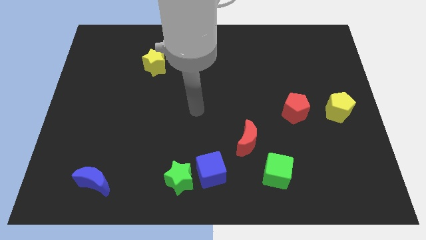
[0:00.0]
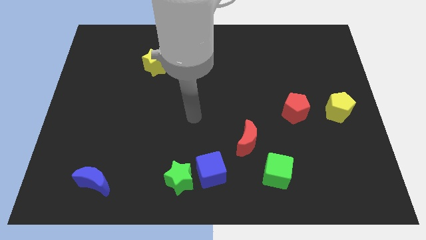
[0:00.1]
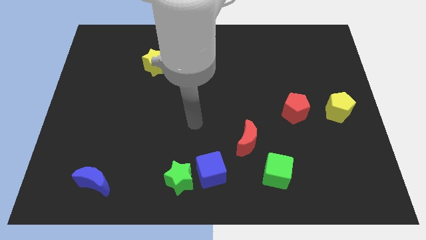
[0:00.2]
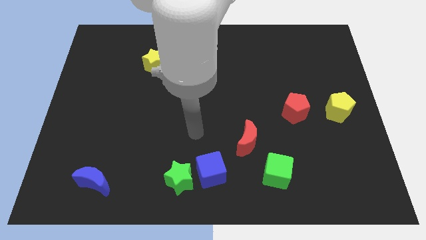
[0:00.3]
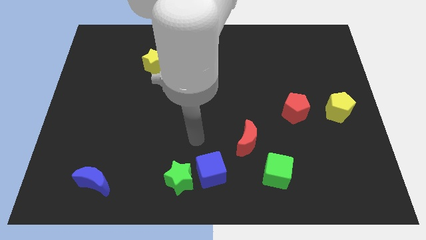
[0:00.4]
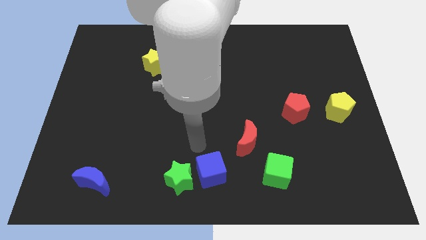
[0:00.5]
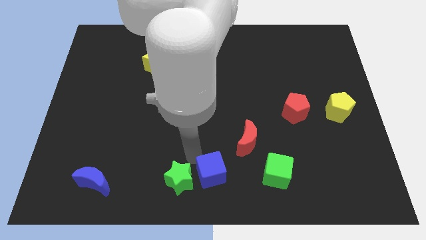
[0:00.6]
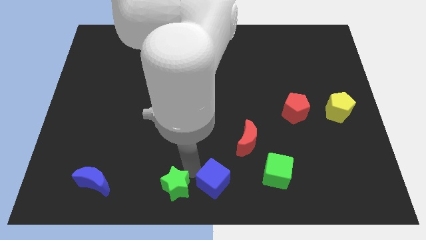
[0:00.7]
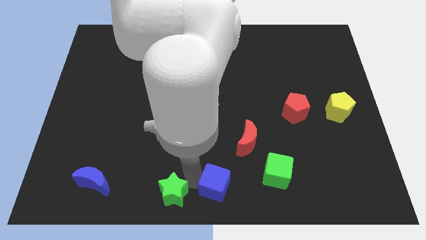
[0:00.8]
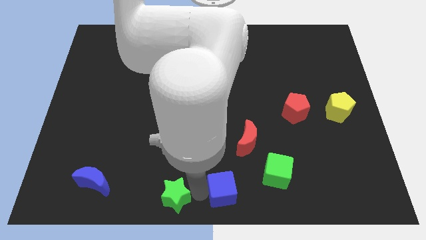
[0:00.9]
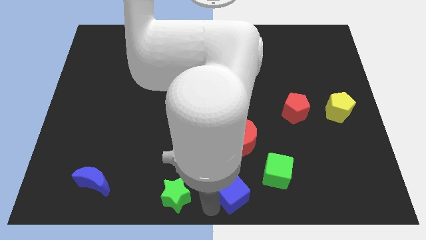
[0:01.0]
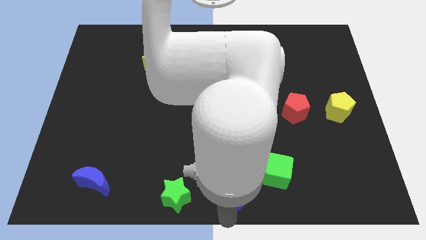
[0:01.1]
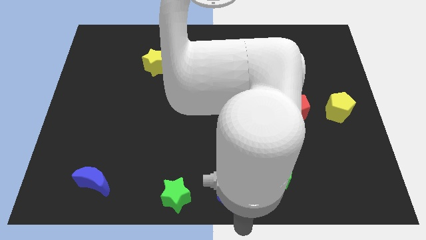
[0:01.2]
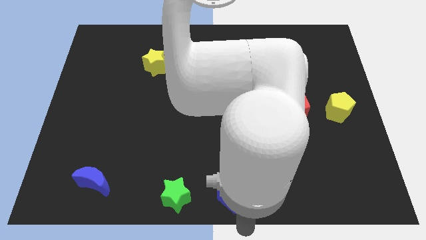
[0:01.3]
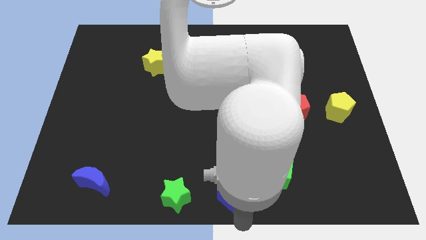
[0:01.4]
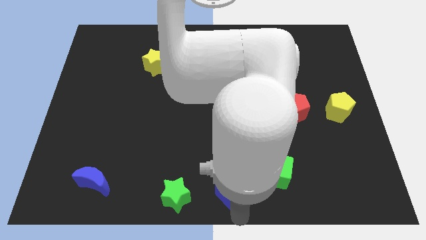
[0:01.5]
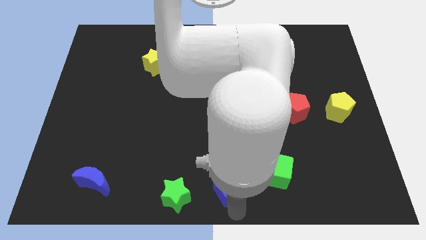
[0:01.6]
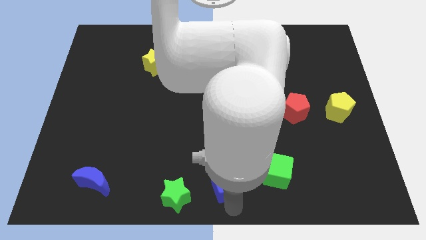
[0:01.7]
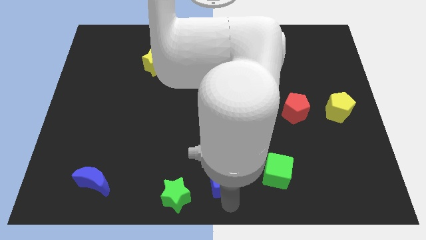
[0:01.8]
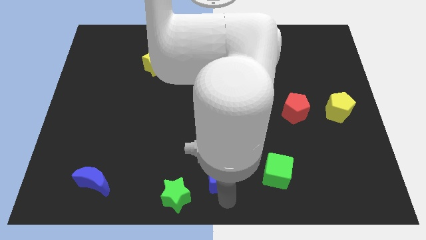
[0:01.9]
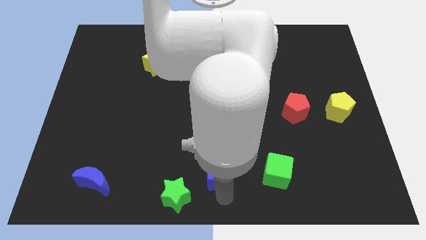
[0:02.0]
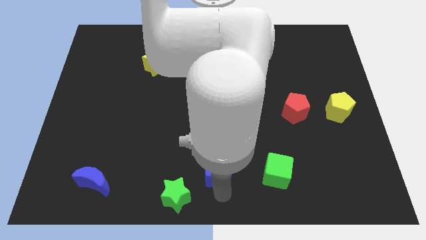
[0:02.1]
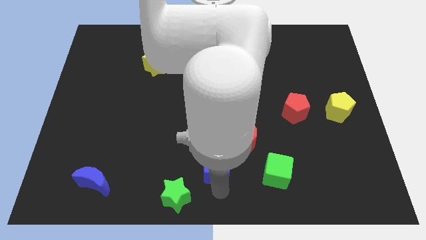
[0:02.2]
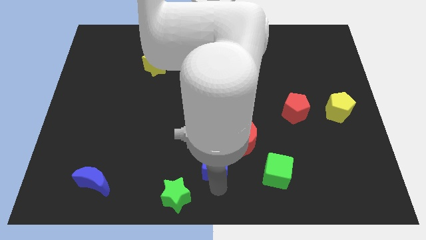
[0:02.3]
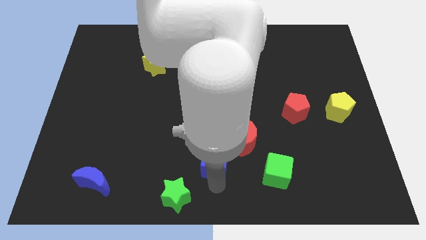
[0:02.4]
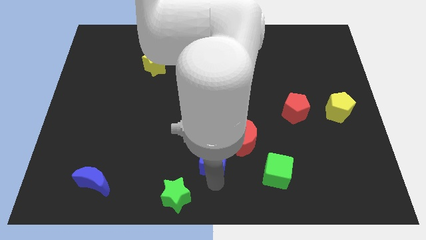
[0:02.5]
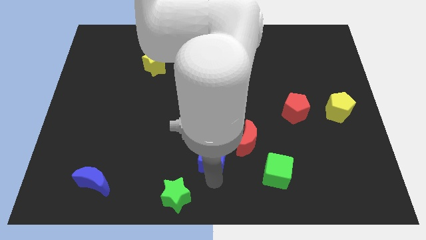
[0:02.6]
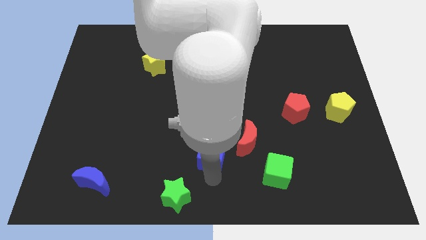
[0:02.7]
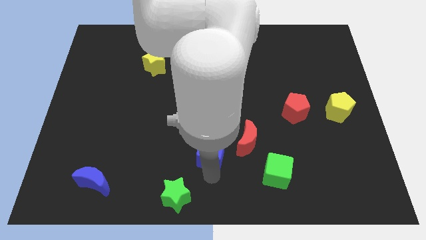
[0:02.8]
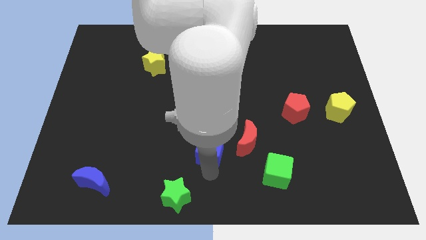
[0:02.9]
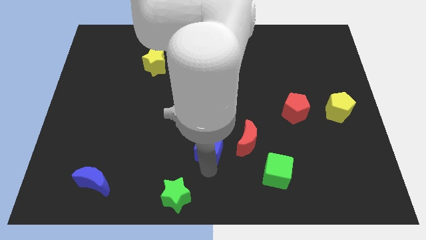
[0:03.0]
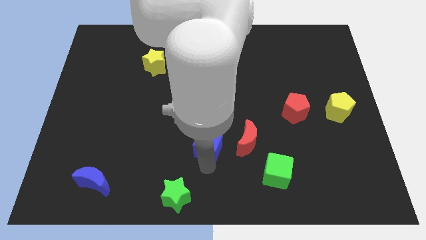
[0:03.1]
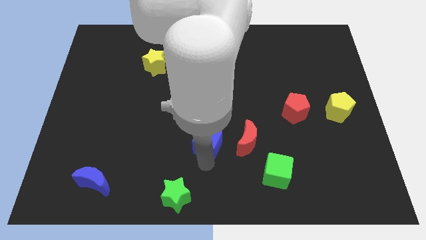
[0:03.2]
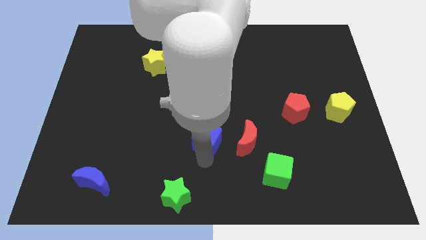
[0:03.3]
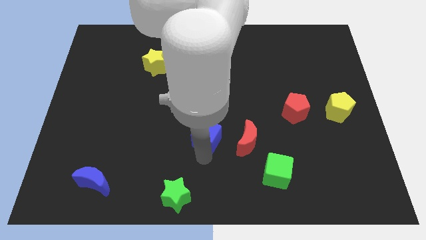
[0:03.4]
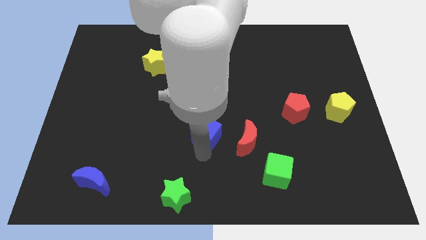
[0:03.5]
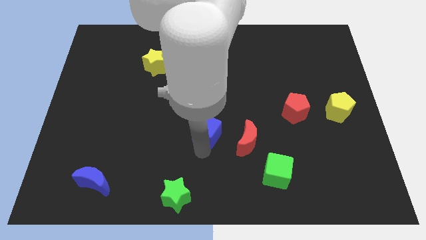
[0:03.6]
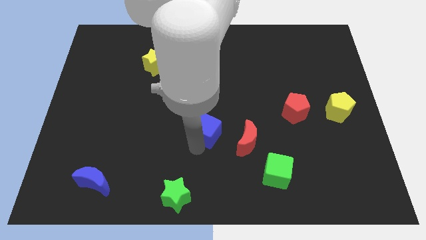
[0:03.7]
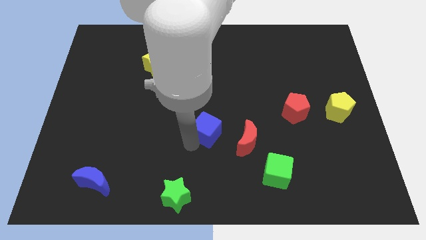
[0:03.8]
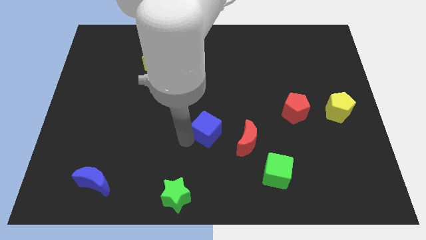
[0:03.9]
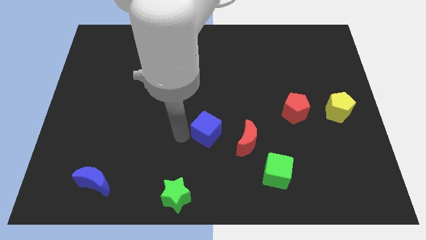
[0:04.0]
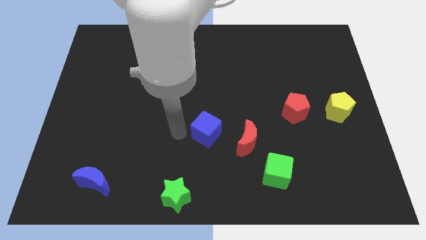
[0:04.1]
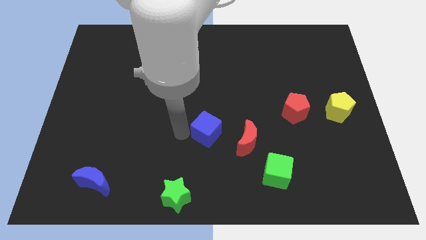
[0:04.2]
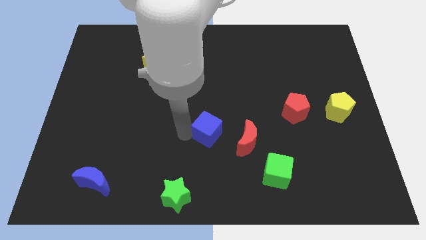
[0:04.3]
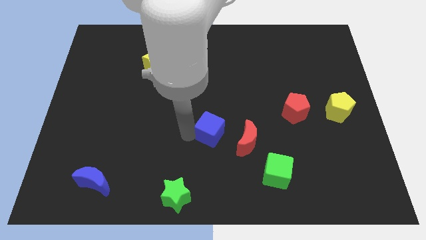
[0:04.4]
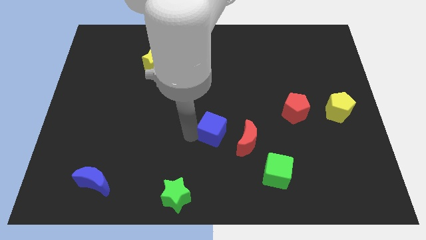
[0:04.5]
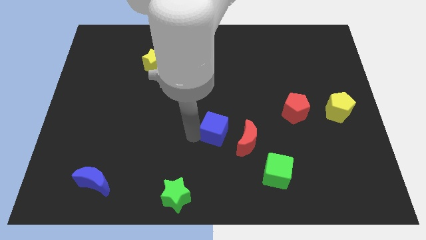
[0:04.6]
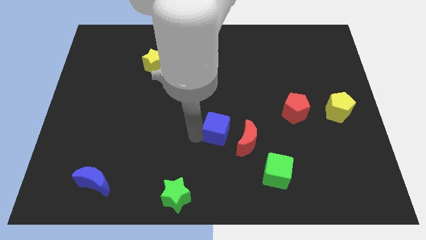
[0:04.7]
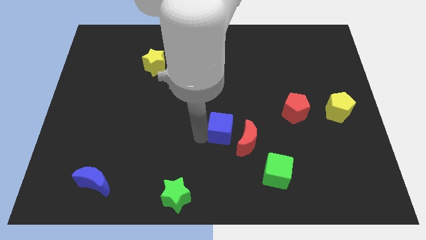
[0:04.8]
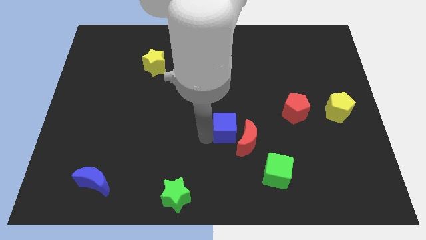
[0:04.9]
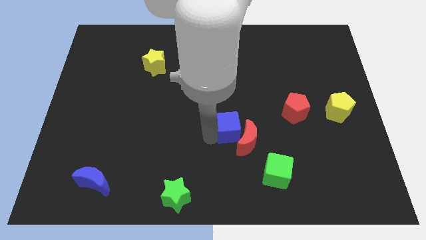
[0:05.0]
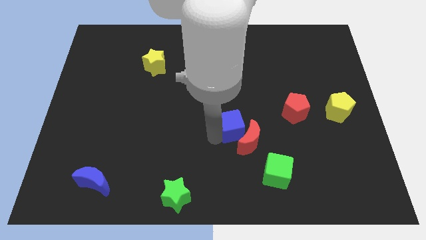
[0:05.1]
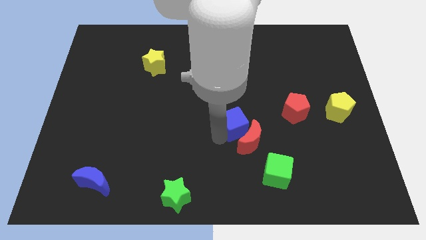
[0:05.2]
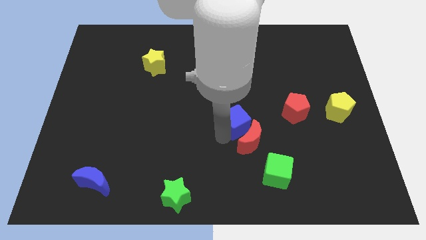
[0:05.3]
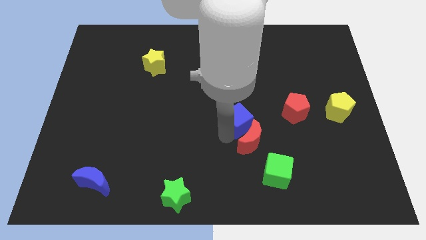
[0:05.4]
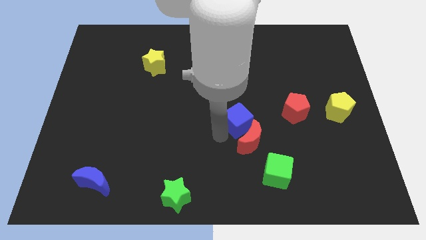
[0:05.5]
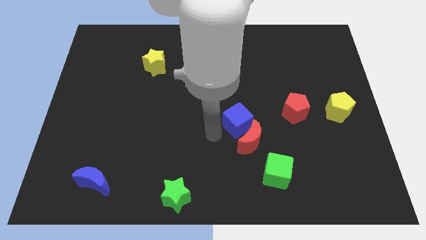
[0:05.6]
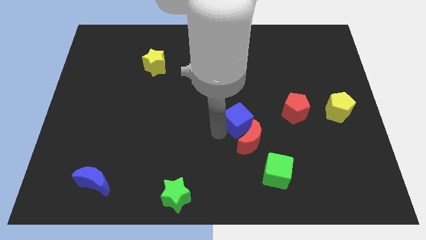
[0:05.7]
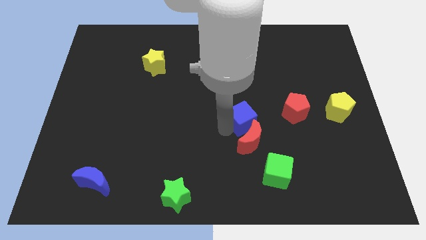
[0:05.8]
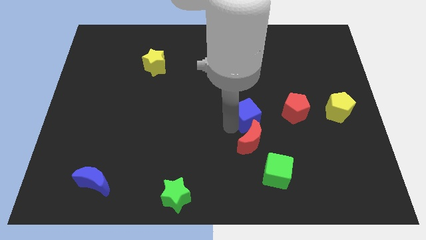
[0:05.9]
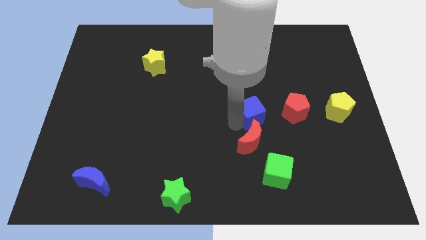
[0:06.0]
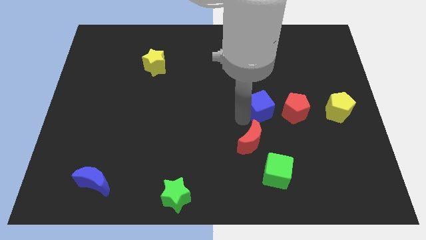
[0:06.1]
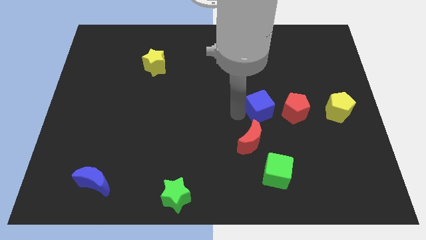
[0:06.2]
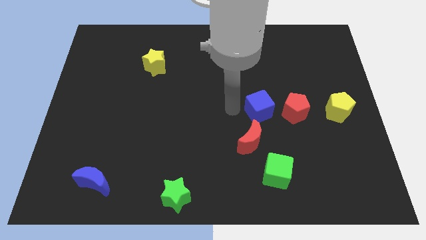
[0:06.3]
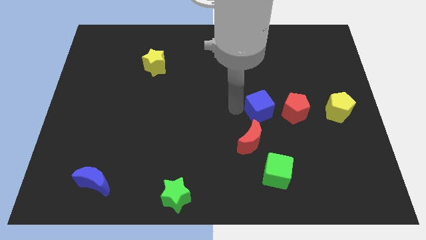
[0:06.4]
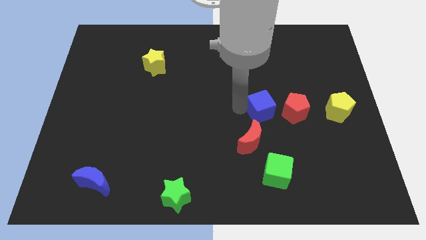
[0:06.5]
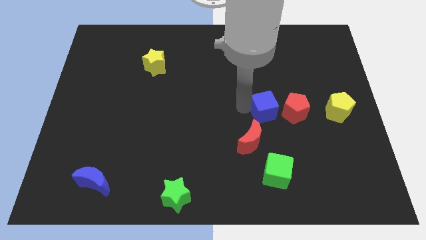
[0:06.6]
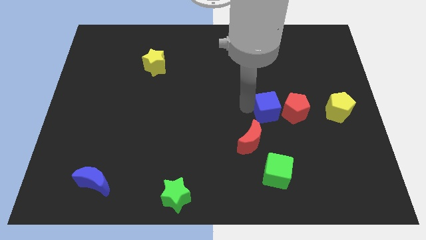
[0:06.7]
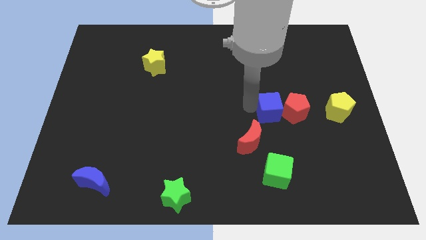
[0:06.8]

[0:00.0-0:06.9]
move the blue cube next to the red pentagon
